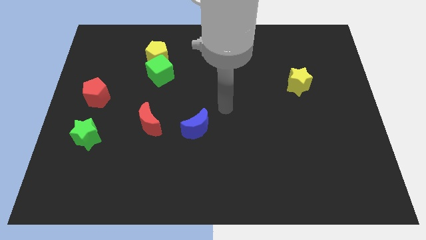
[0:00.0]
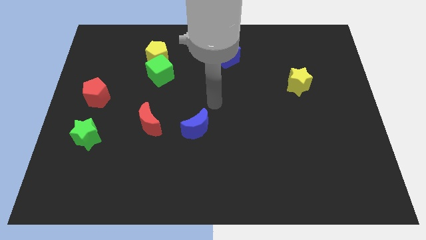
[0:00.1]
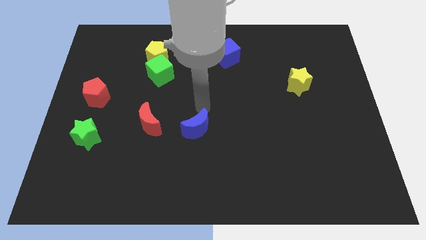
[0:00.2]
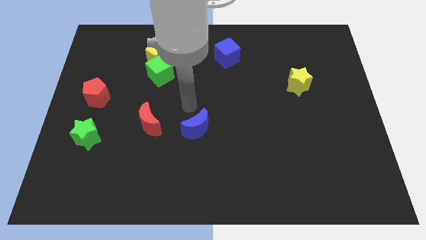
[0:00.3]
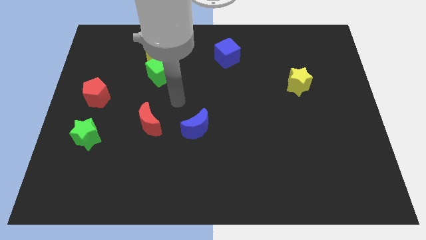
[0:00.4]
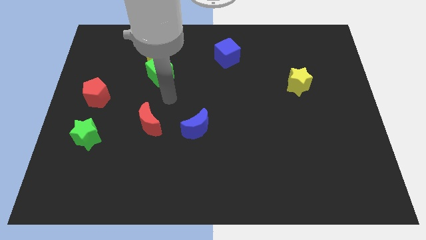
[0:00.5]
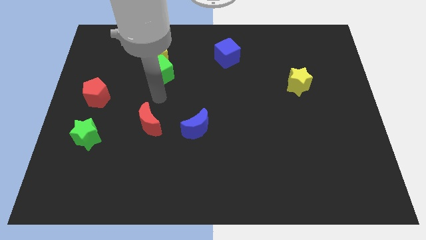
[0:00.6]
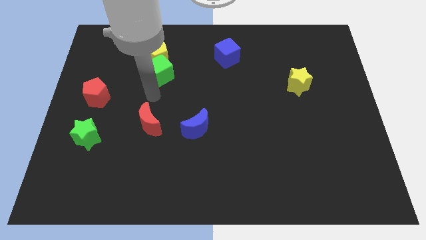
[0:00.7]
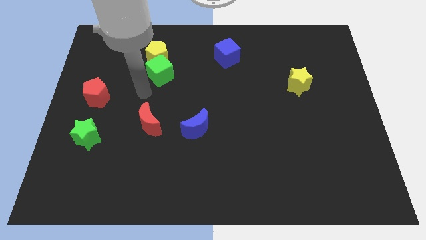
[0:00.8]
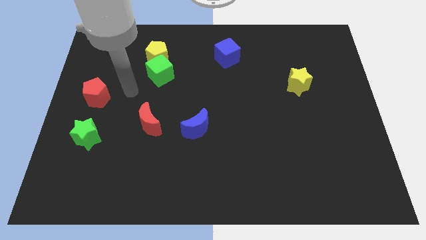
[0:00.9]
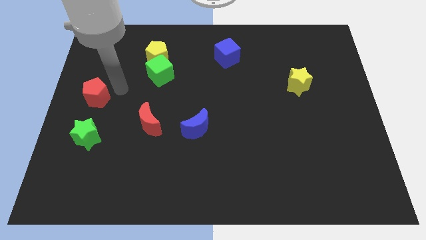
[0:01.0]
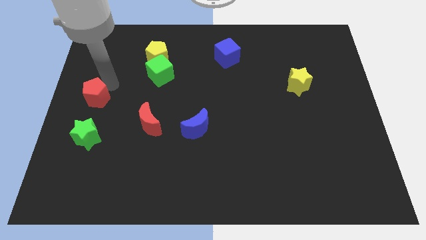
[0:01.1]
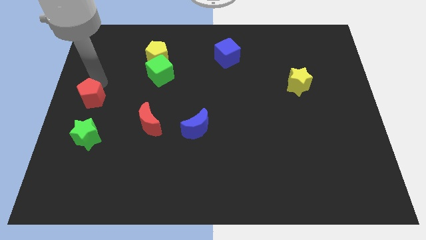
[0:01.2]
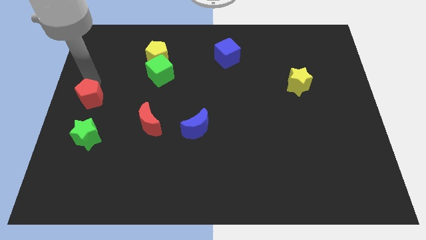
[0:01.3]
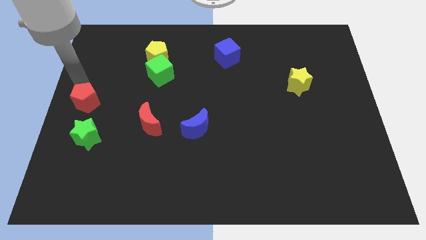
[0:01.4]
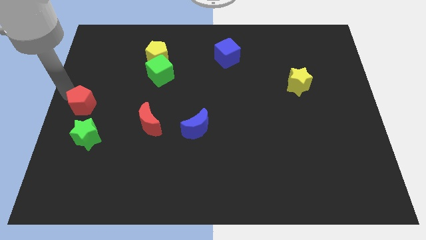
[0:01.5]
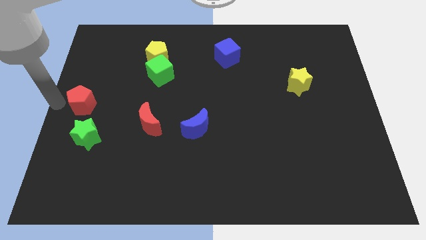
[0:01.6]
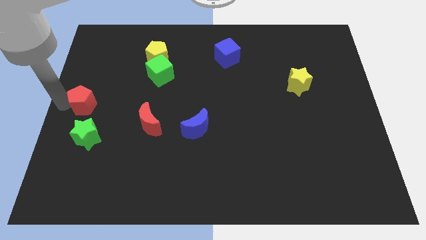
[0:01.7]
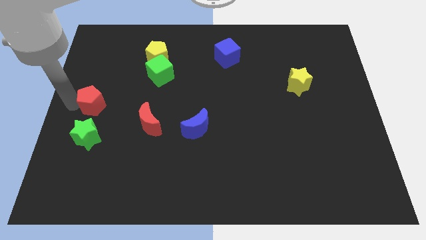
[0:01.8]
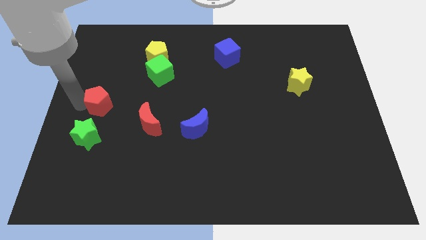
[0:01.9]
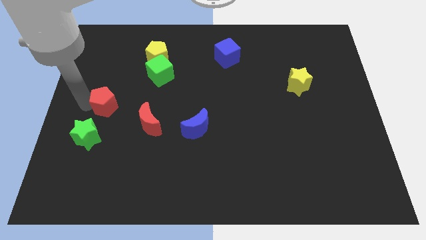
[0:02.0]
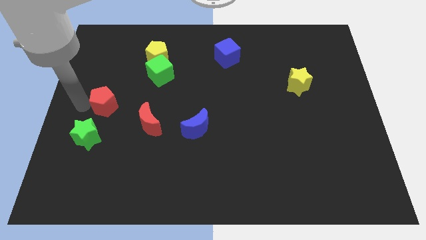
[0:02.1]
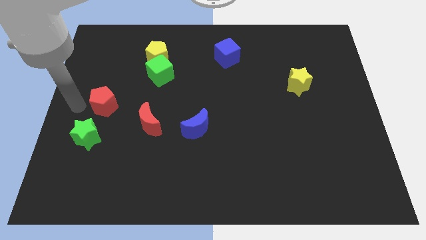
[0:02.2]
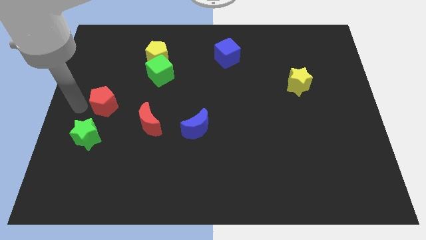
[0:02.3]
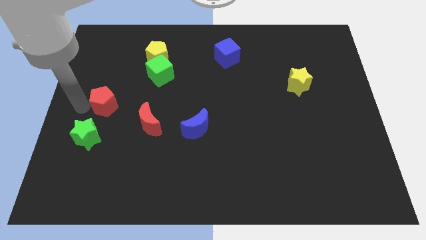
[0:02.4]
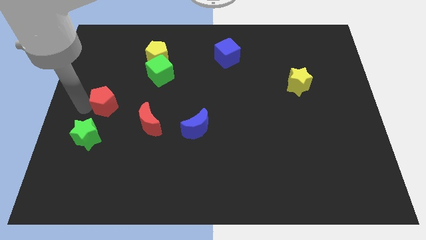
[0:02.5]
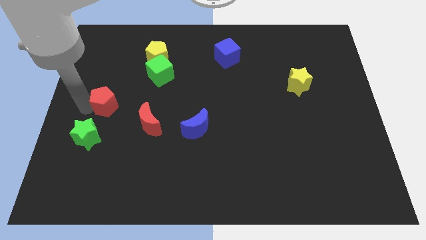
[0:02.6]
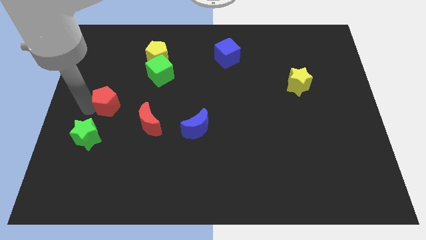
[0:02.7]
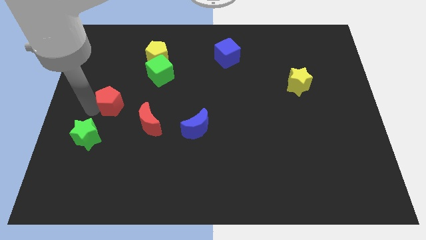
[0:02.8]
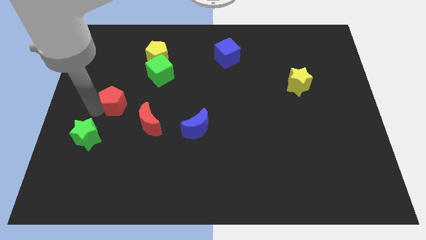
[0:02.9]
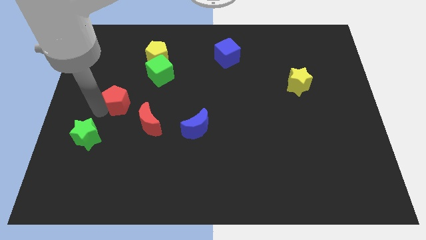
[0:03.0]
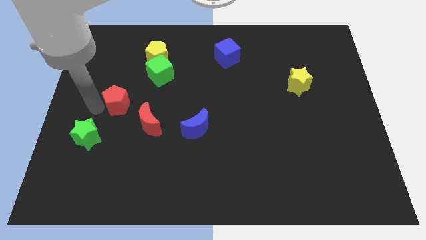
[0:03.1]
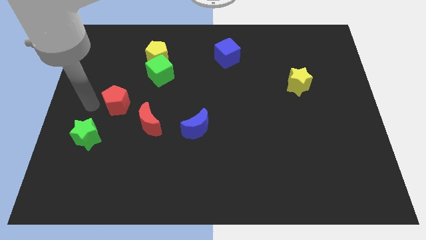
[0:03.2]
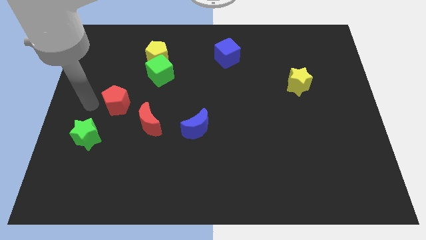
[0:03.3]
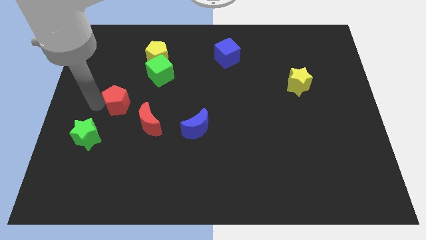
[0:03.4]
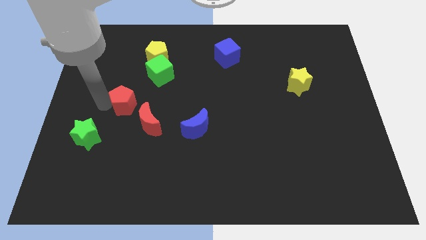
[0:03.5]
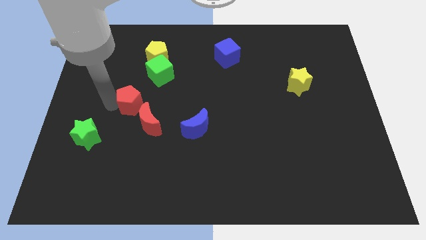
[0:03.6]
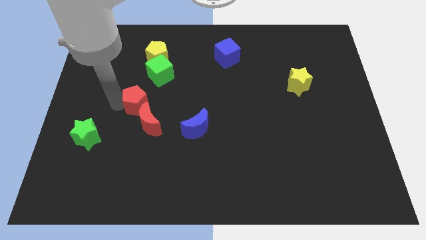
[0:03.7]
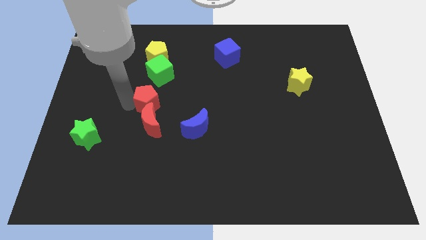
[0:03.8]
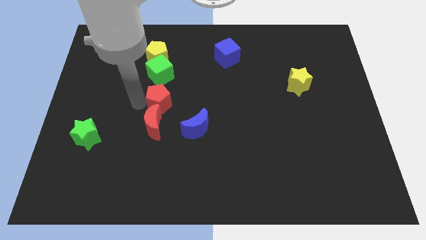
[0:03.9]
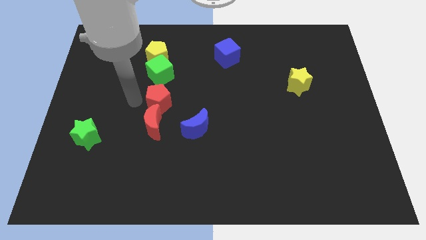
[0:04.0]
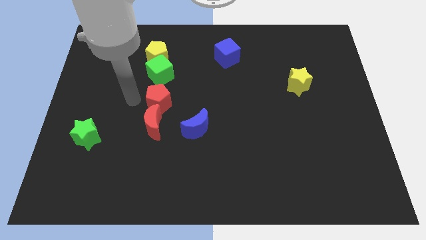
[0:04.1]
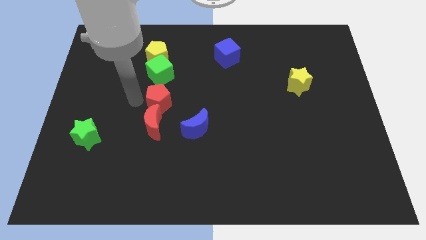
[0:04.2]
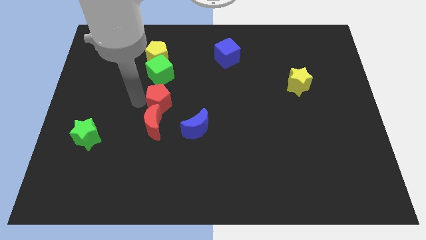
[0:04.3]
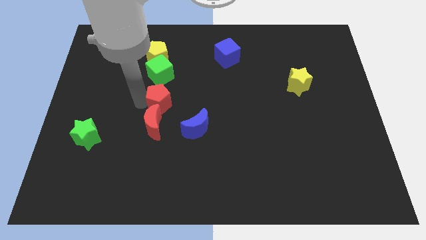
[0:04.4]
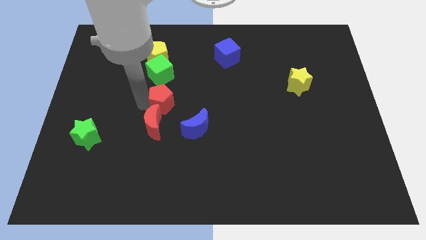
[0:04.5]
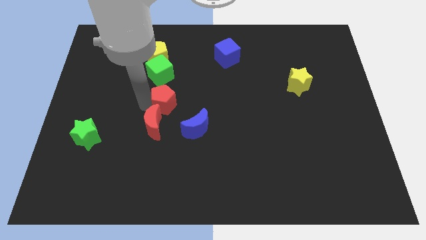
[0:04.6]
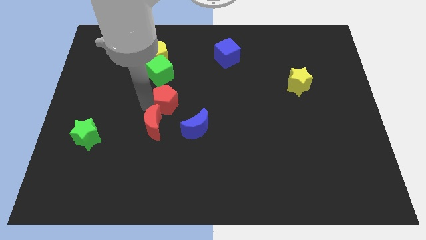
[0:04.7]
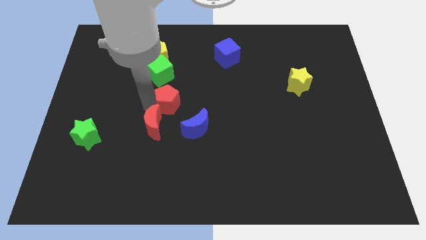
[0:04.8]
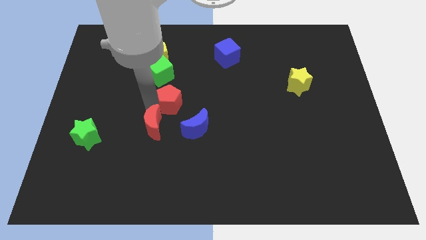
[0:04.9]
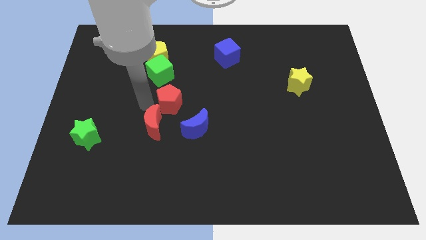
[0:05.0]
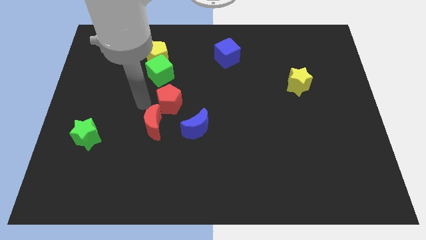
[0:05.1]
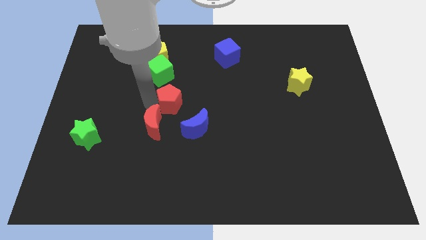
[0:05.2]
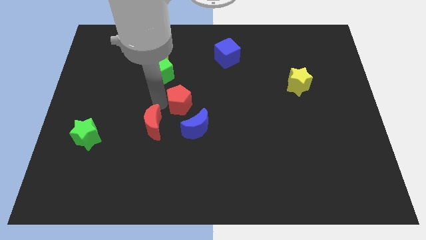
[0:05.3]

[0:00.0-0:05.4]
push the red pentagon right

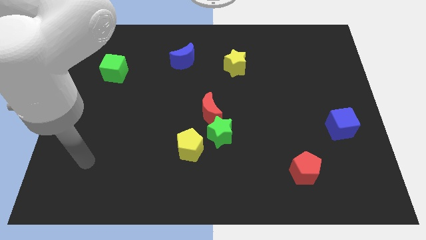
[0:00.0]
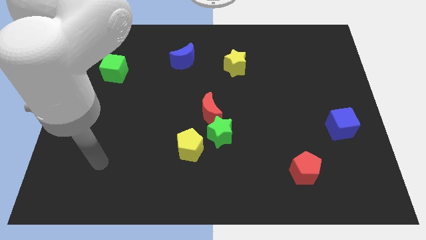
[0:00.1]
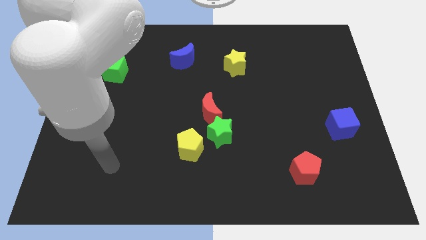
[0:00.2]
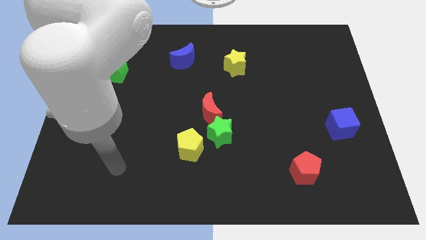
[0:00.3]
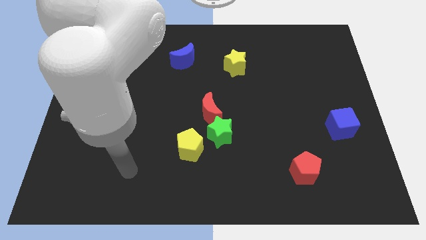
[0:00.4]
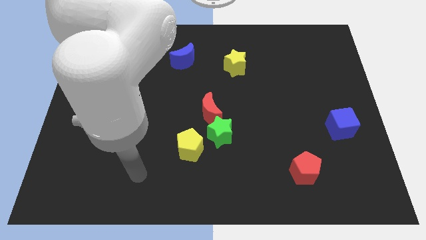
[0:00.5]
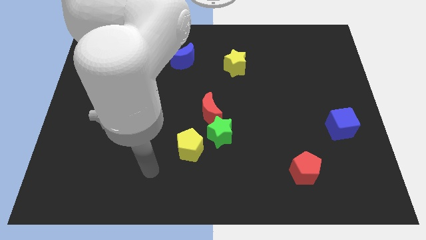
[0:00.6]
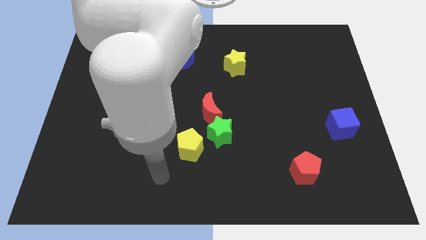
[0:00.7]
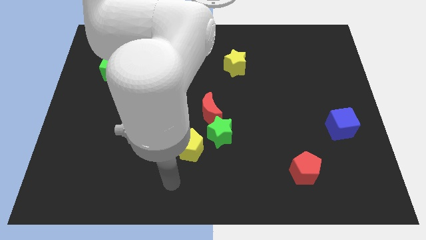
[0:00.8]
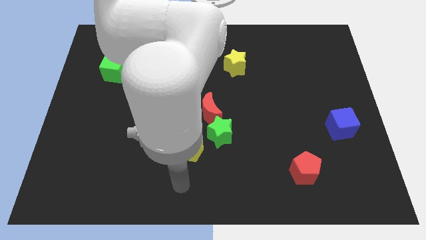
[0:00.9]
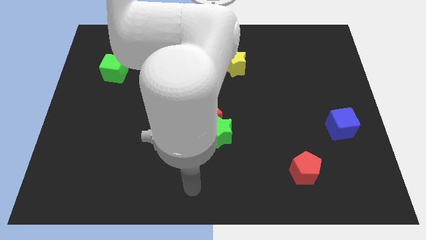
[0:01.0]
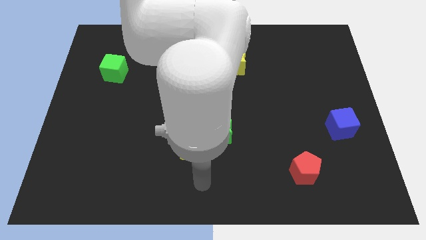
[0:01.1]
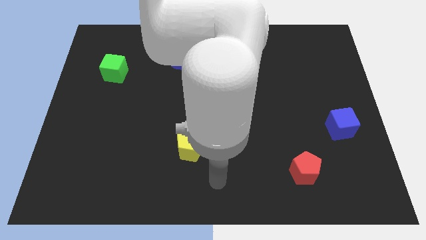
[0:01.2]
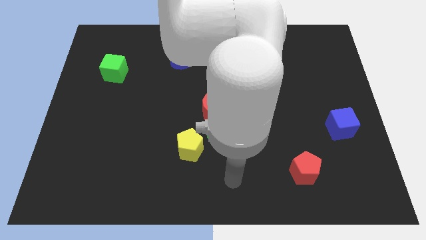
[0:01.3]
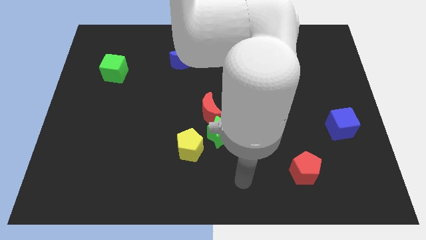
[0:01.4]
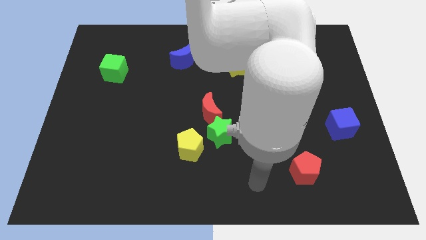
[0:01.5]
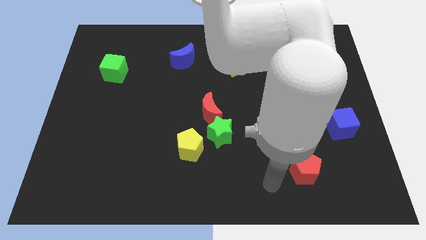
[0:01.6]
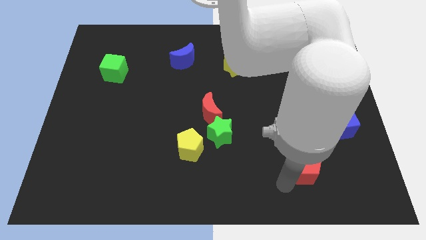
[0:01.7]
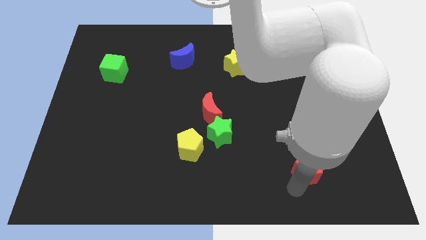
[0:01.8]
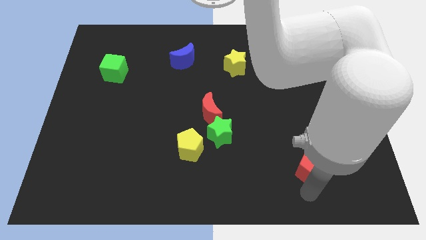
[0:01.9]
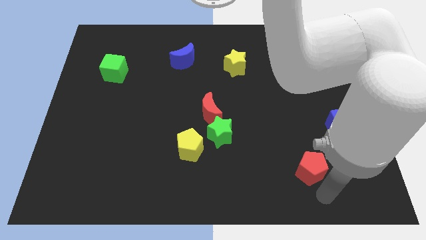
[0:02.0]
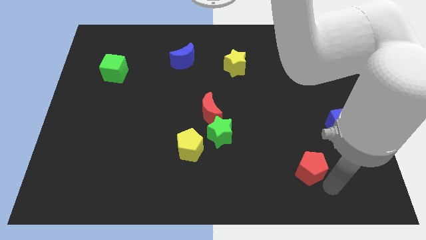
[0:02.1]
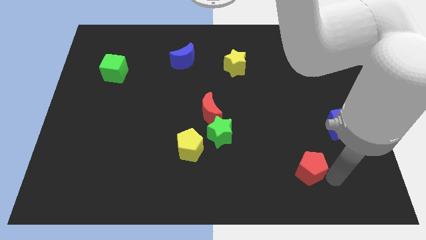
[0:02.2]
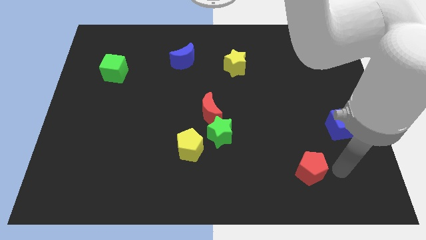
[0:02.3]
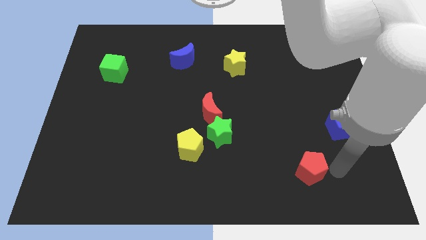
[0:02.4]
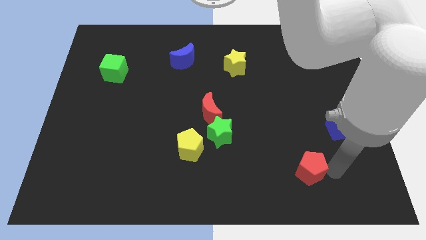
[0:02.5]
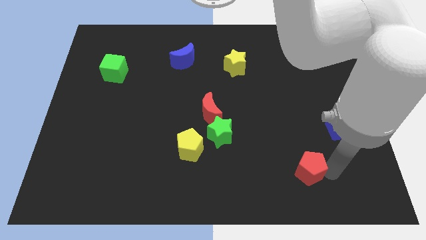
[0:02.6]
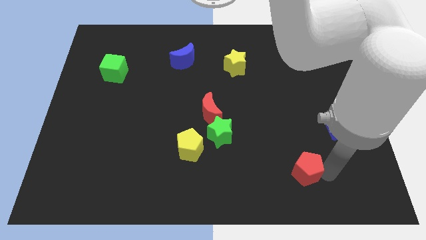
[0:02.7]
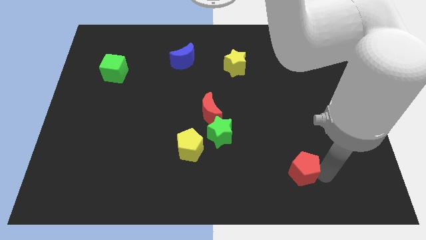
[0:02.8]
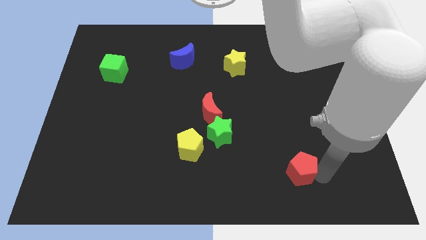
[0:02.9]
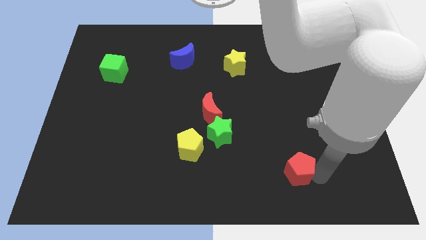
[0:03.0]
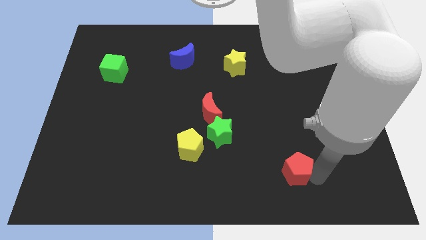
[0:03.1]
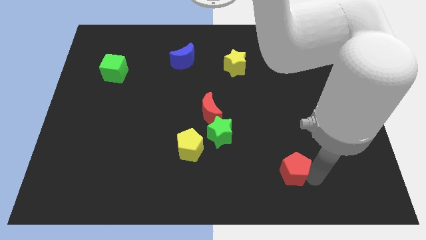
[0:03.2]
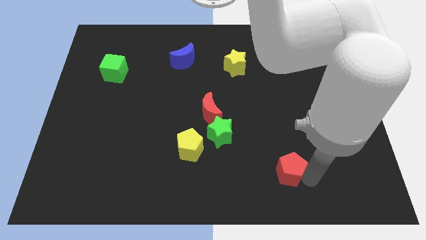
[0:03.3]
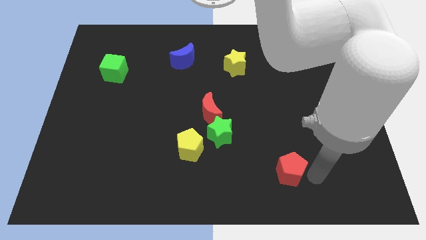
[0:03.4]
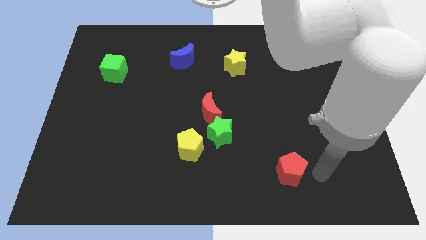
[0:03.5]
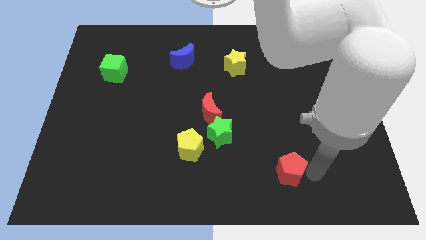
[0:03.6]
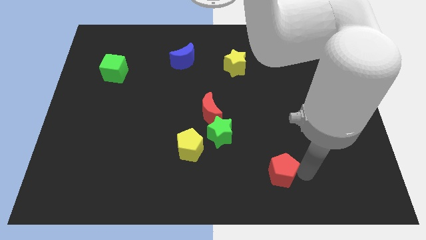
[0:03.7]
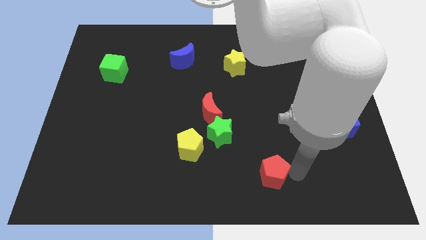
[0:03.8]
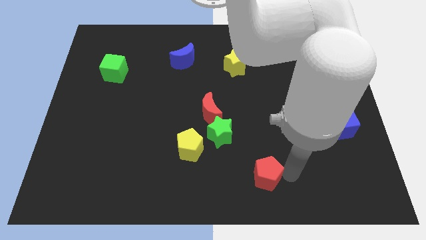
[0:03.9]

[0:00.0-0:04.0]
slide the red pentagon left a little
